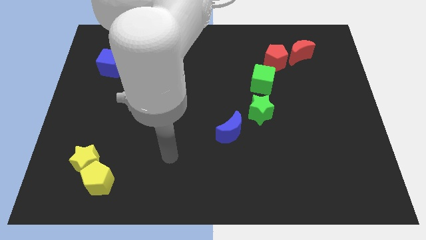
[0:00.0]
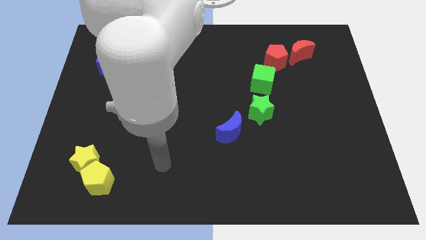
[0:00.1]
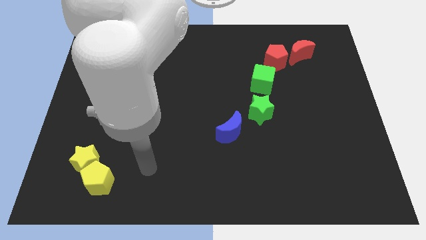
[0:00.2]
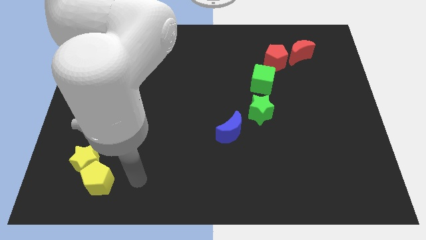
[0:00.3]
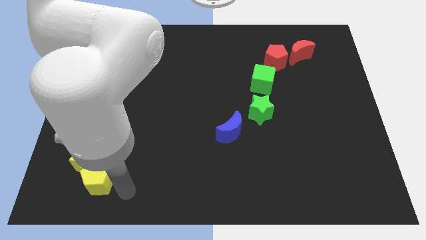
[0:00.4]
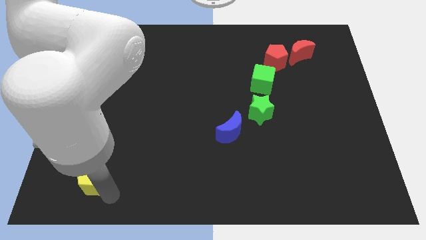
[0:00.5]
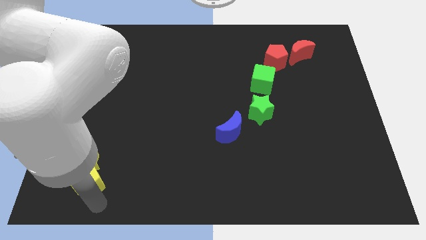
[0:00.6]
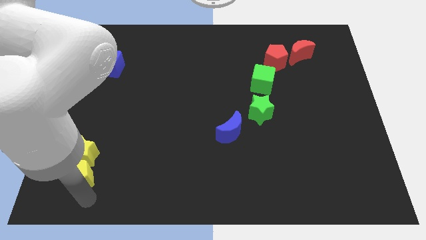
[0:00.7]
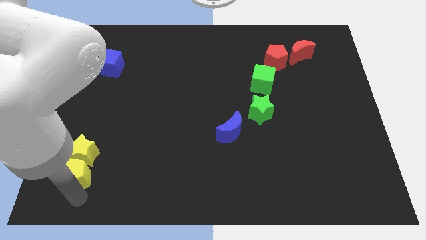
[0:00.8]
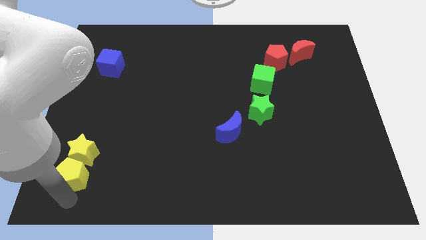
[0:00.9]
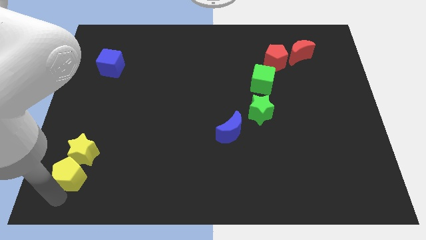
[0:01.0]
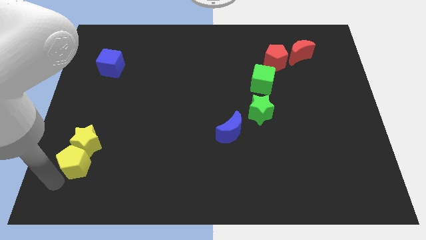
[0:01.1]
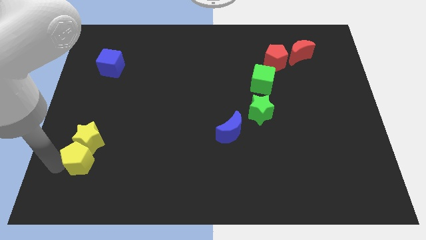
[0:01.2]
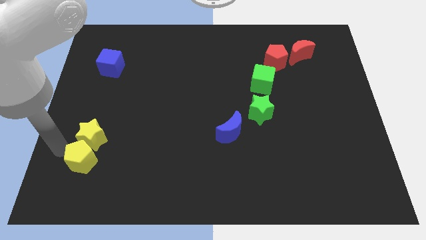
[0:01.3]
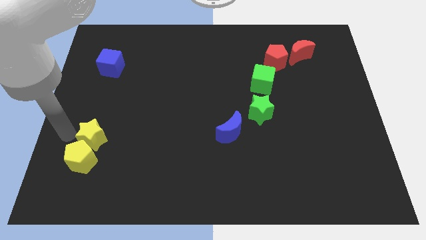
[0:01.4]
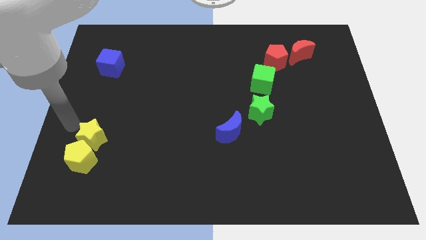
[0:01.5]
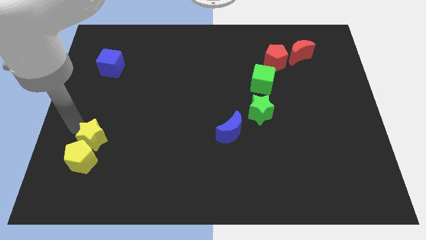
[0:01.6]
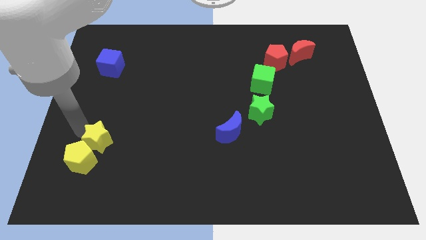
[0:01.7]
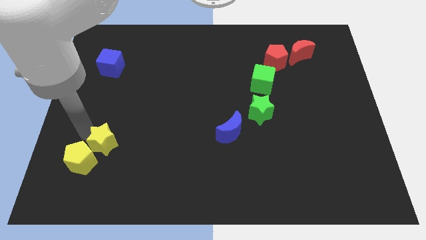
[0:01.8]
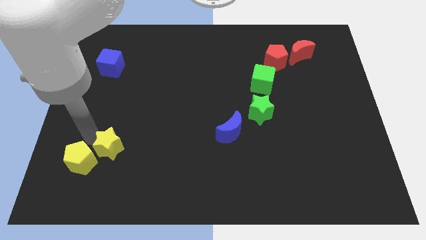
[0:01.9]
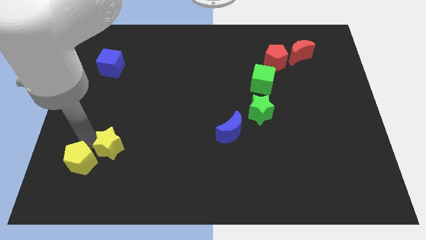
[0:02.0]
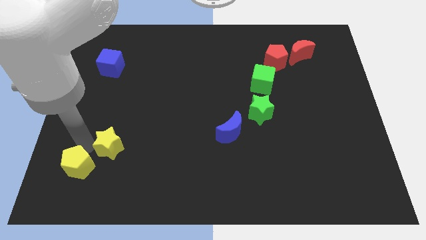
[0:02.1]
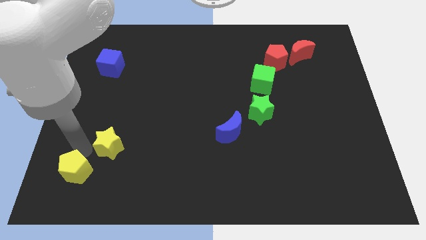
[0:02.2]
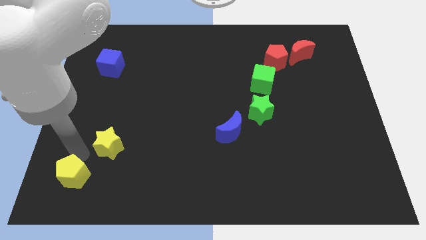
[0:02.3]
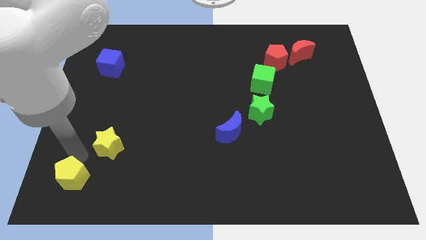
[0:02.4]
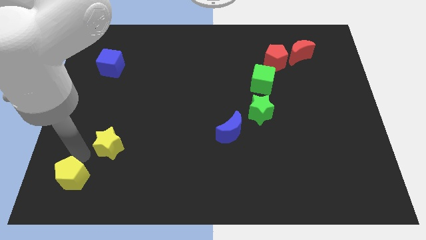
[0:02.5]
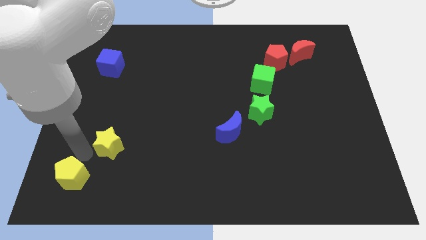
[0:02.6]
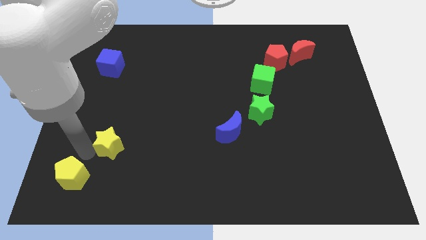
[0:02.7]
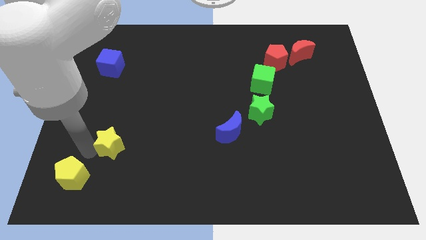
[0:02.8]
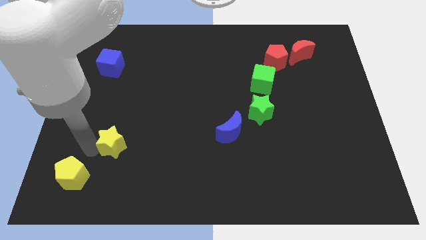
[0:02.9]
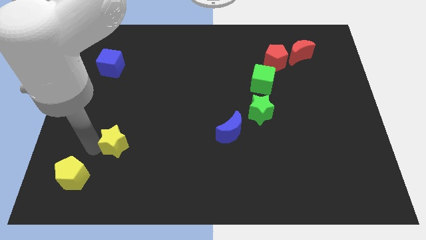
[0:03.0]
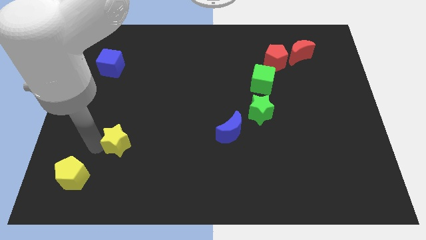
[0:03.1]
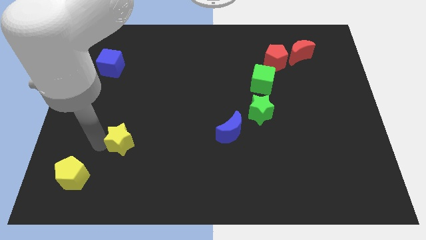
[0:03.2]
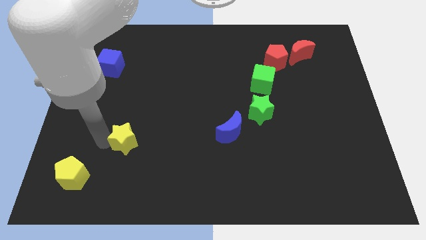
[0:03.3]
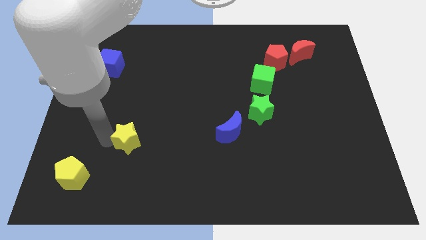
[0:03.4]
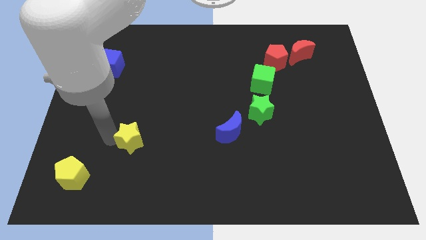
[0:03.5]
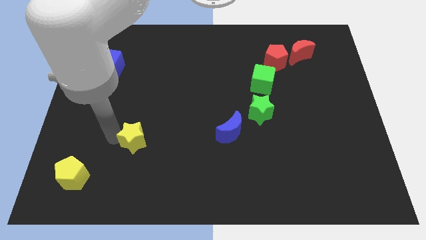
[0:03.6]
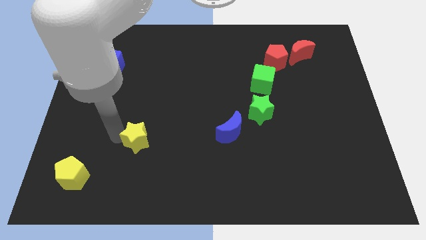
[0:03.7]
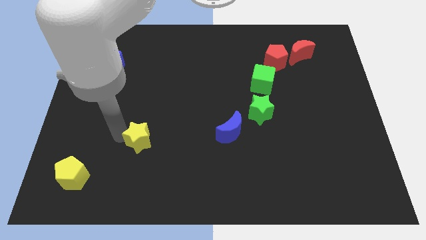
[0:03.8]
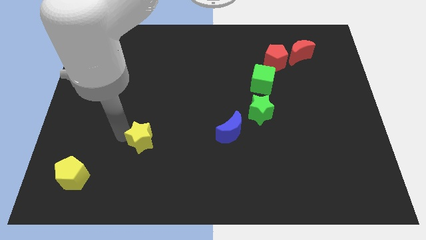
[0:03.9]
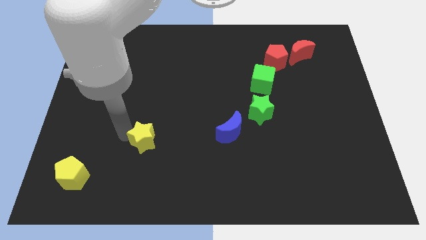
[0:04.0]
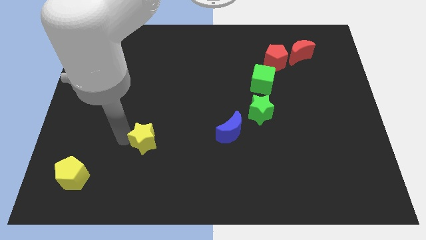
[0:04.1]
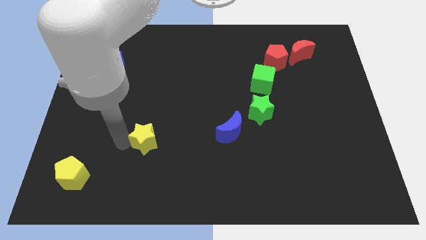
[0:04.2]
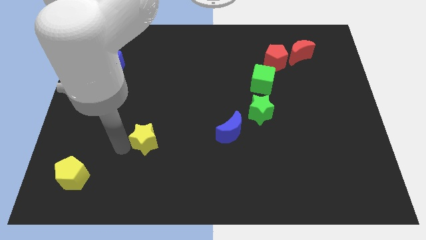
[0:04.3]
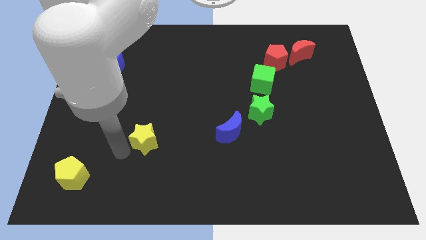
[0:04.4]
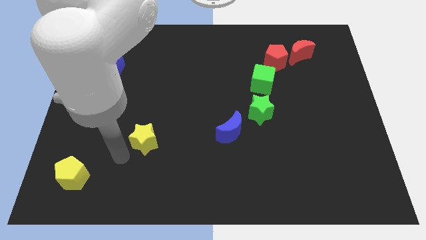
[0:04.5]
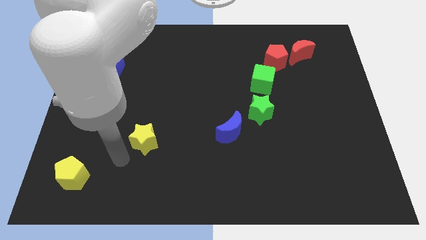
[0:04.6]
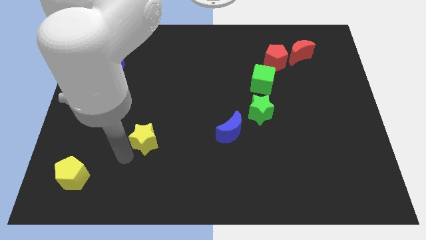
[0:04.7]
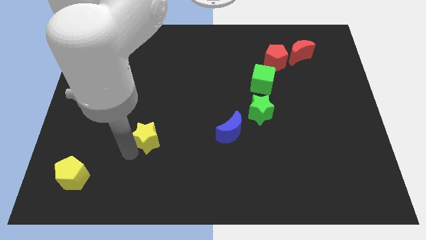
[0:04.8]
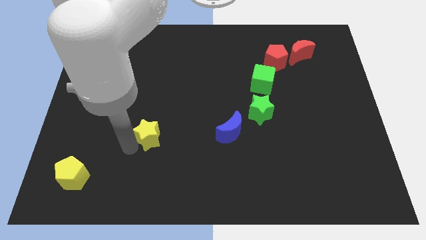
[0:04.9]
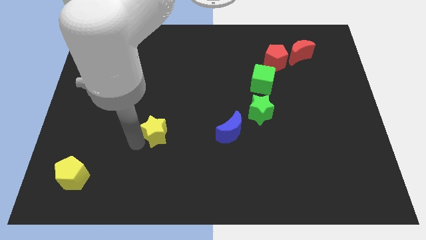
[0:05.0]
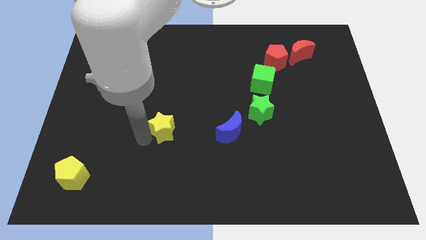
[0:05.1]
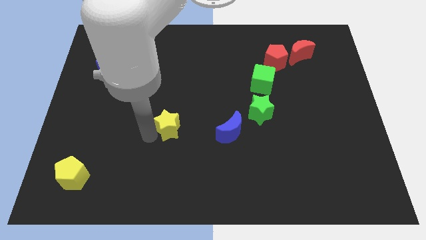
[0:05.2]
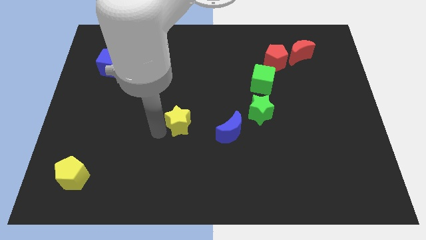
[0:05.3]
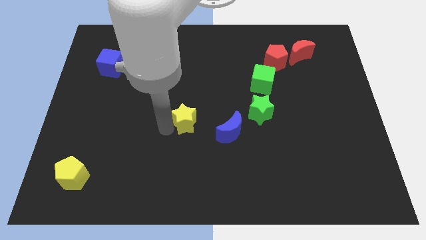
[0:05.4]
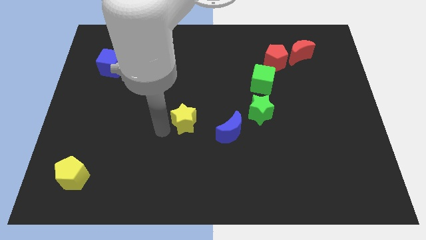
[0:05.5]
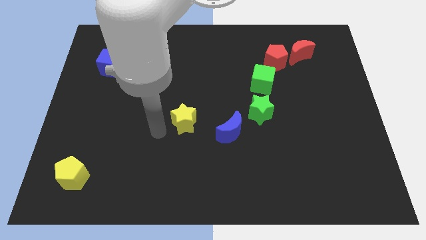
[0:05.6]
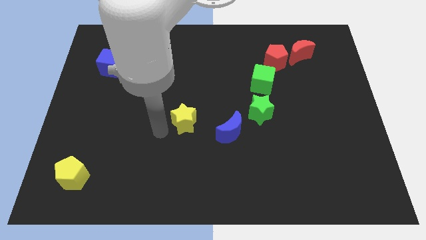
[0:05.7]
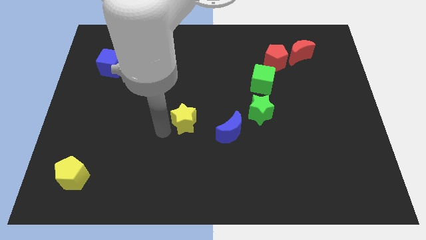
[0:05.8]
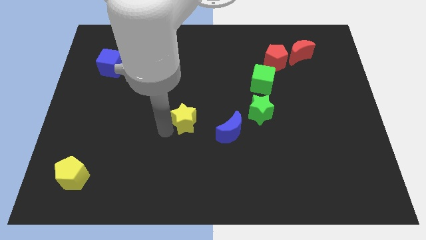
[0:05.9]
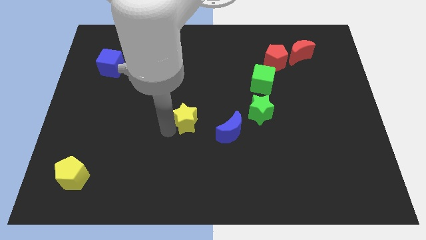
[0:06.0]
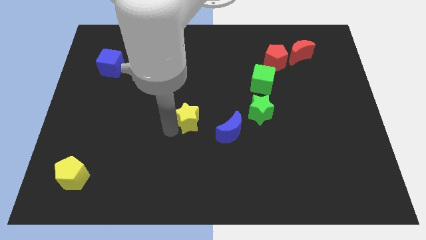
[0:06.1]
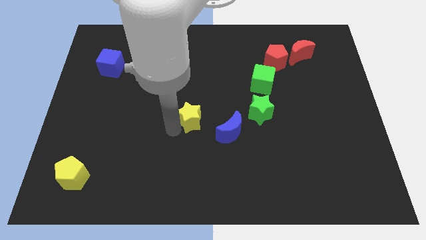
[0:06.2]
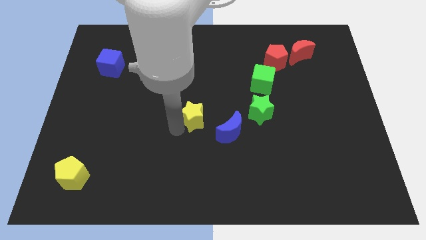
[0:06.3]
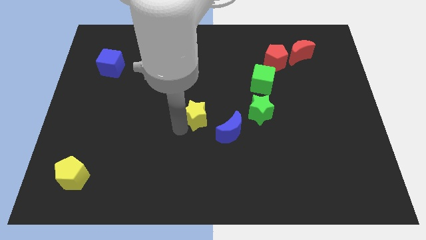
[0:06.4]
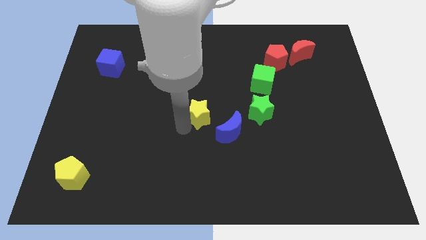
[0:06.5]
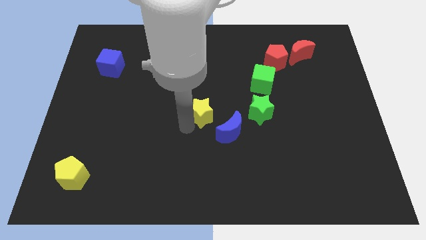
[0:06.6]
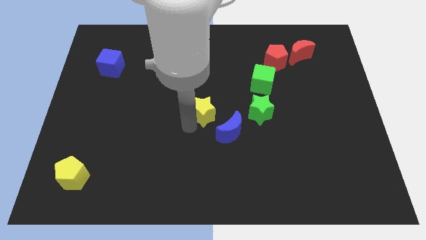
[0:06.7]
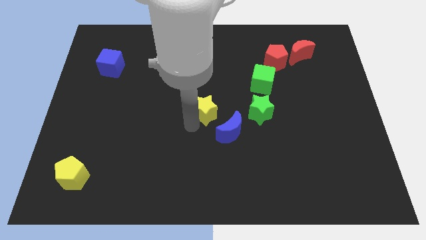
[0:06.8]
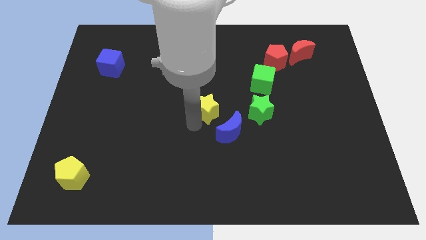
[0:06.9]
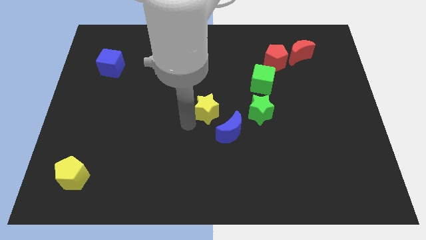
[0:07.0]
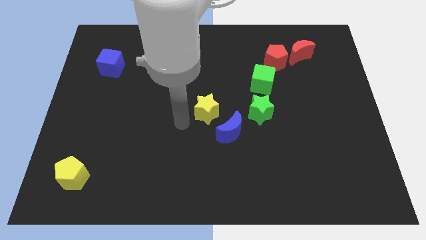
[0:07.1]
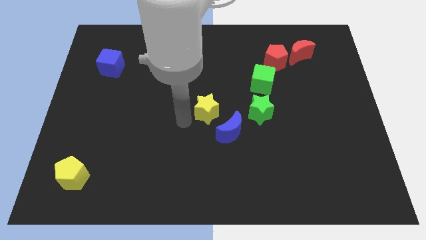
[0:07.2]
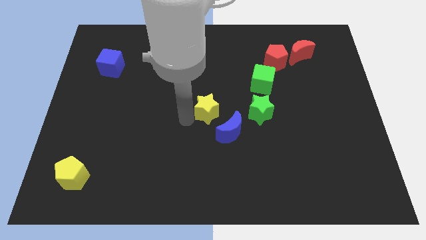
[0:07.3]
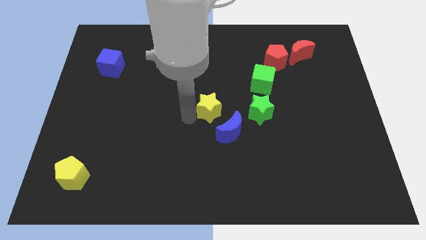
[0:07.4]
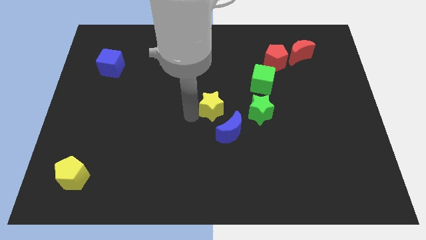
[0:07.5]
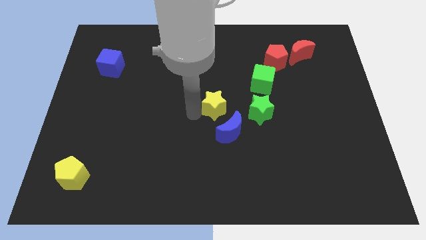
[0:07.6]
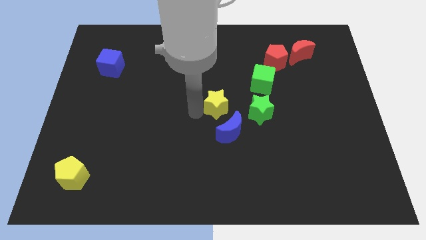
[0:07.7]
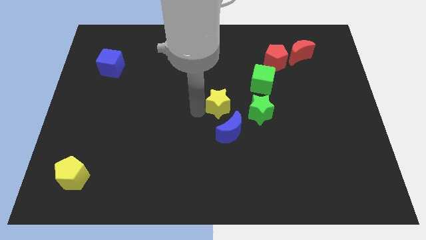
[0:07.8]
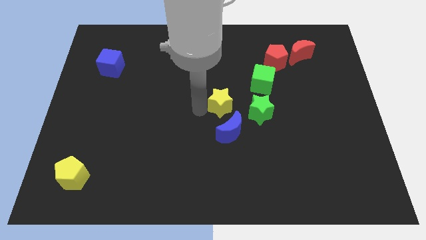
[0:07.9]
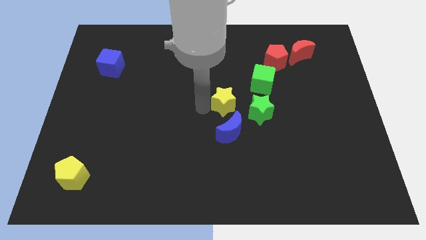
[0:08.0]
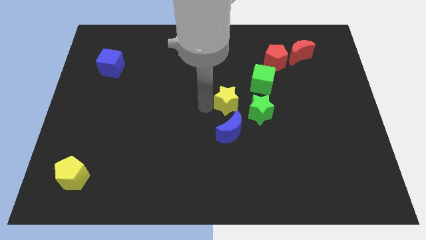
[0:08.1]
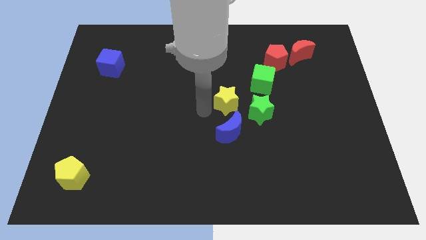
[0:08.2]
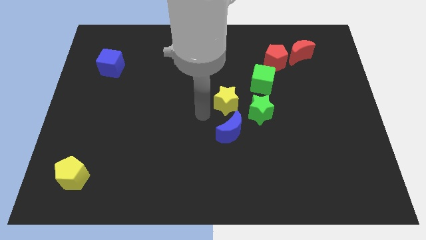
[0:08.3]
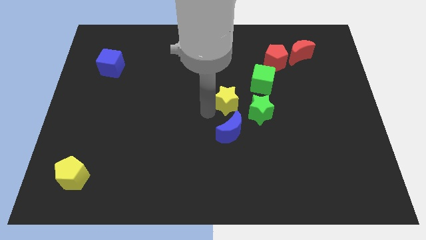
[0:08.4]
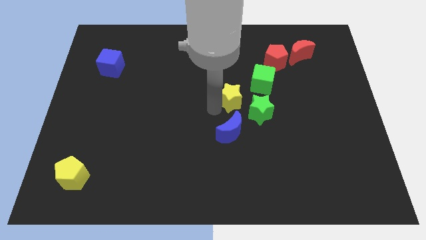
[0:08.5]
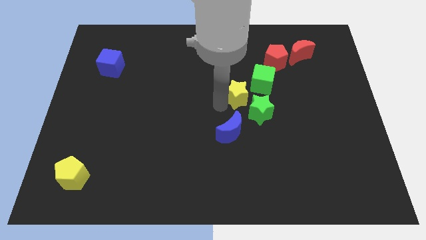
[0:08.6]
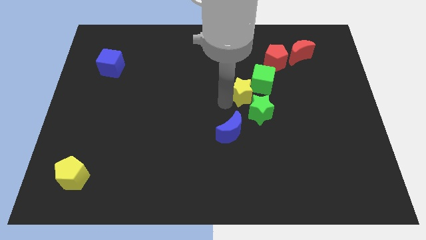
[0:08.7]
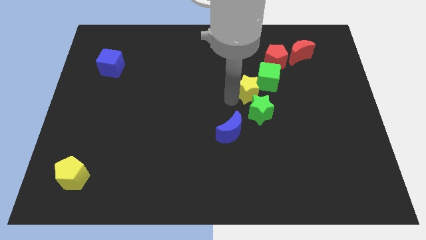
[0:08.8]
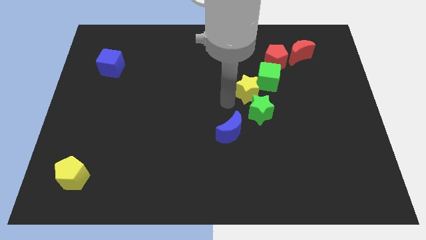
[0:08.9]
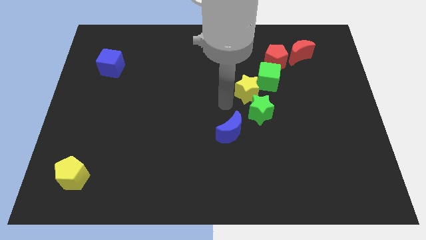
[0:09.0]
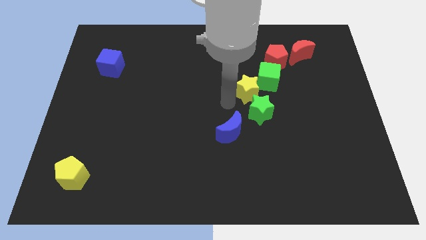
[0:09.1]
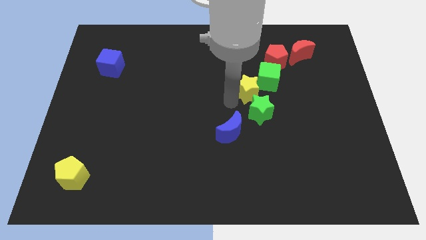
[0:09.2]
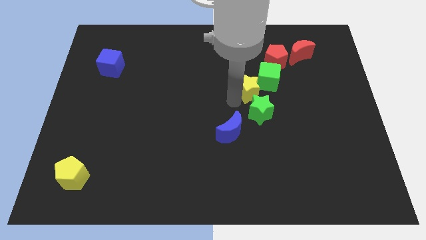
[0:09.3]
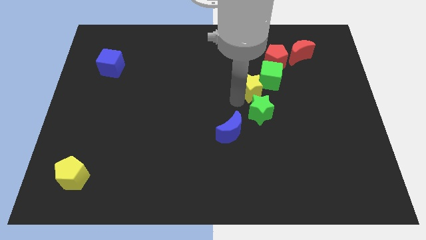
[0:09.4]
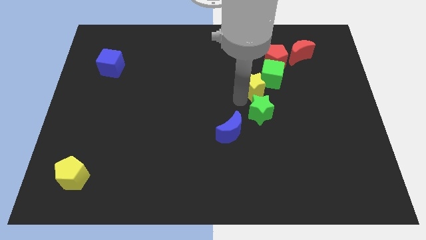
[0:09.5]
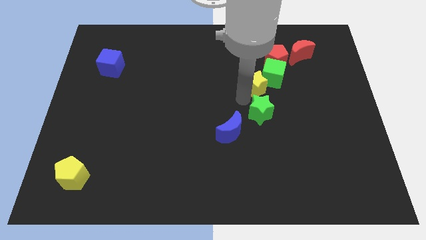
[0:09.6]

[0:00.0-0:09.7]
put the yellow star to the green cube
